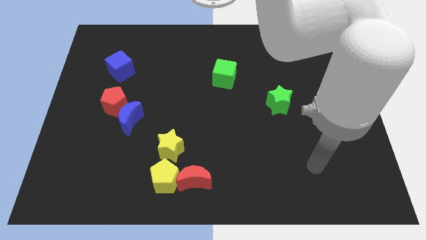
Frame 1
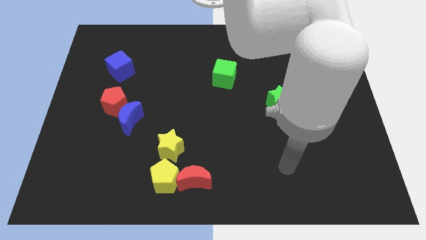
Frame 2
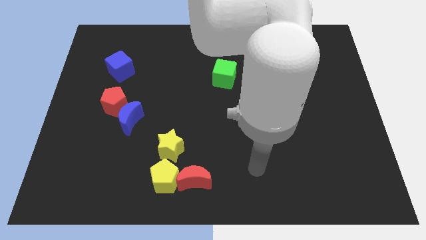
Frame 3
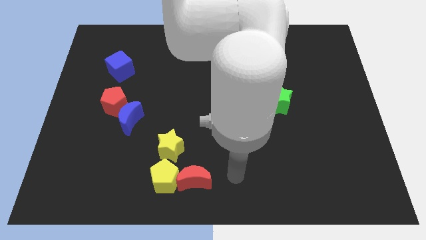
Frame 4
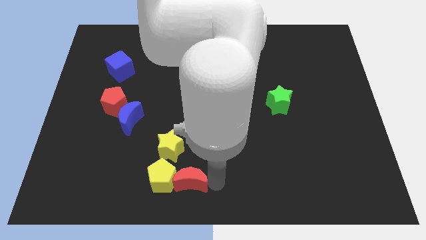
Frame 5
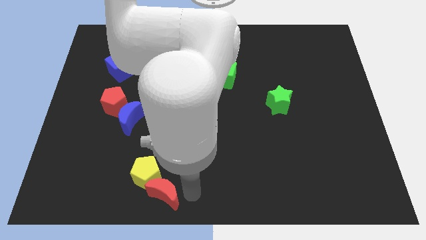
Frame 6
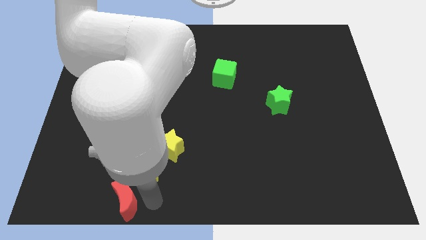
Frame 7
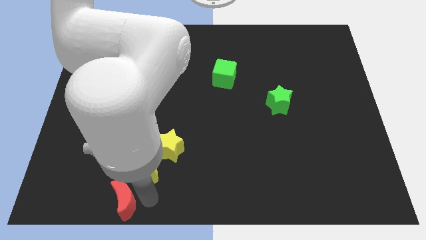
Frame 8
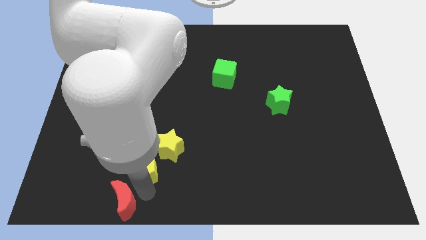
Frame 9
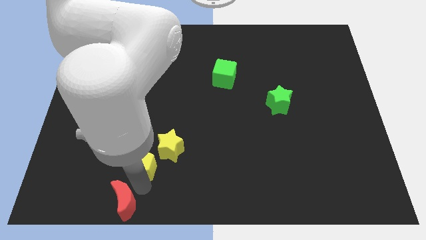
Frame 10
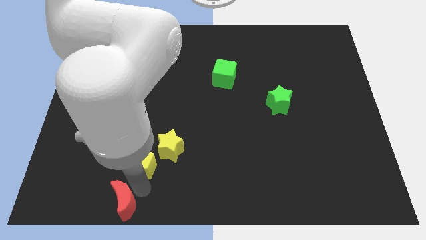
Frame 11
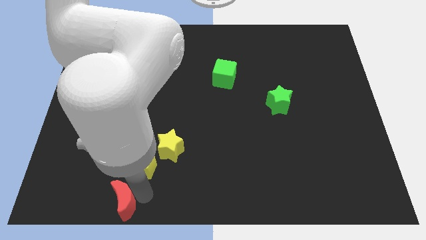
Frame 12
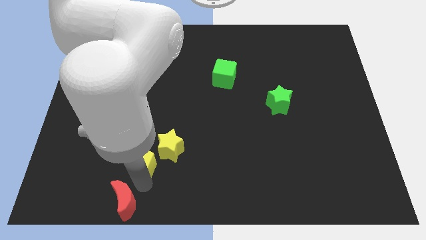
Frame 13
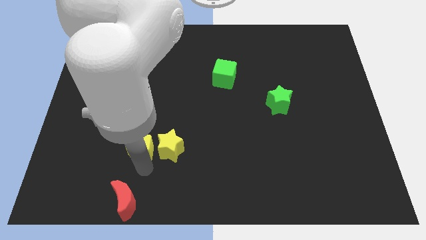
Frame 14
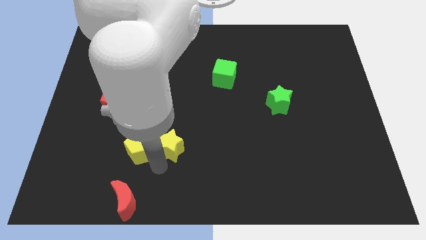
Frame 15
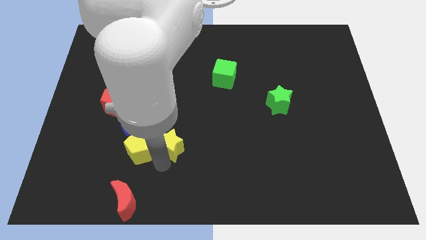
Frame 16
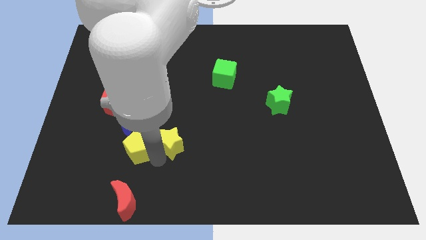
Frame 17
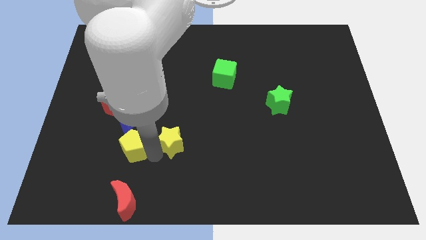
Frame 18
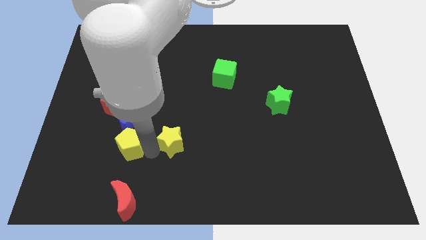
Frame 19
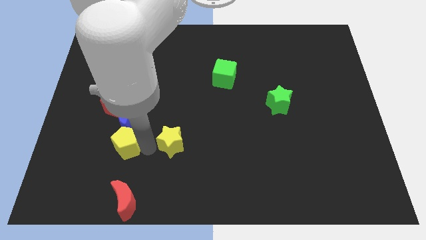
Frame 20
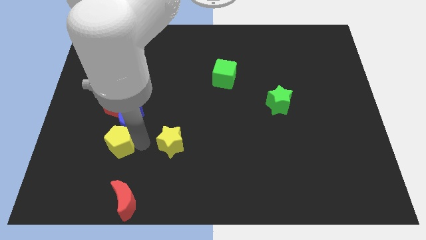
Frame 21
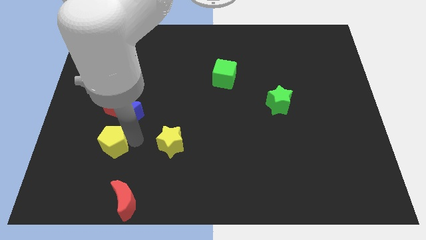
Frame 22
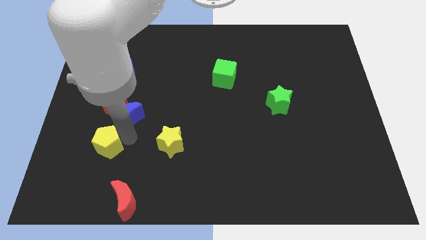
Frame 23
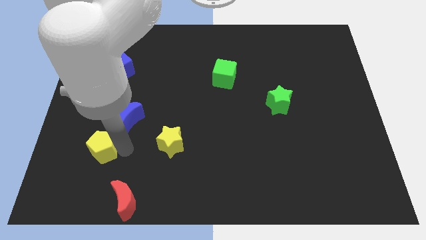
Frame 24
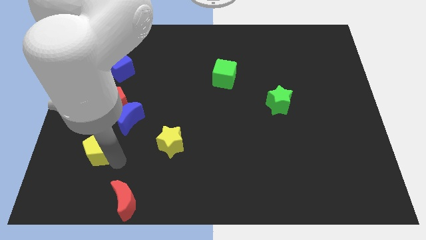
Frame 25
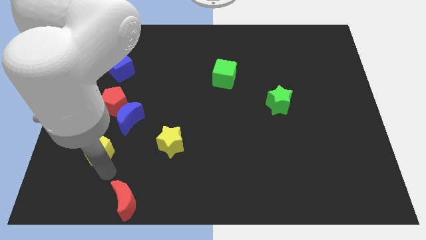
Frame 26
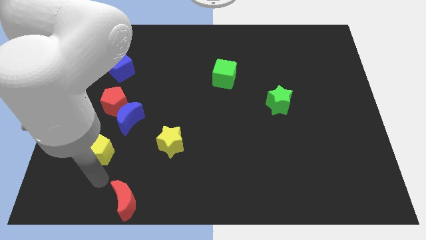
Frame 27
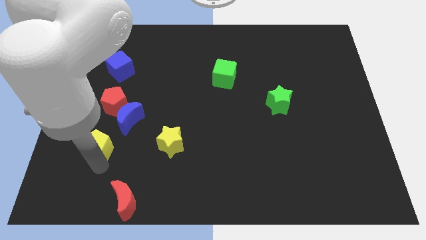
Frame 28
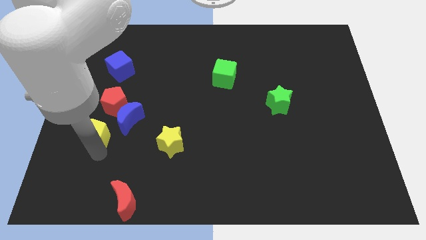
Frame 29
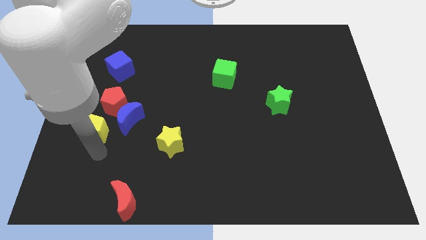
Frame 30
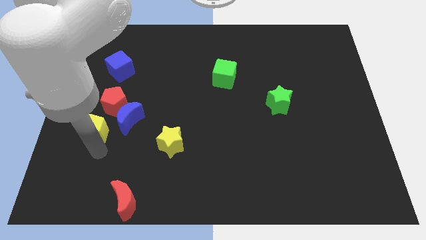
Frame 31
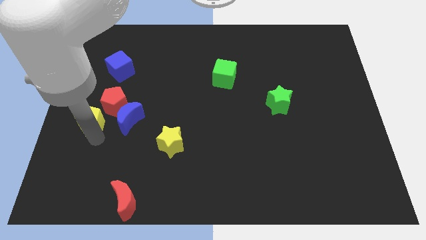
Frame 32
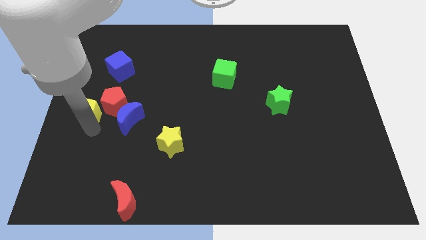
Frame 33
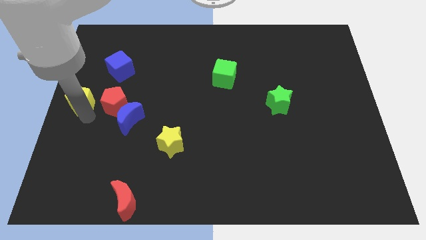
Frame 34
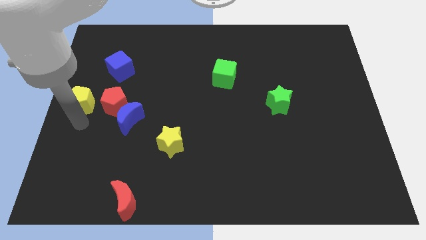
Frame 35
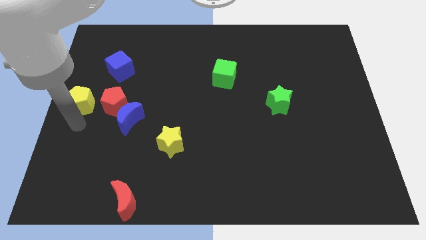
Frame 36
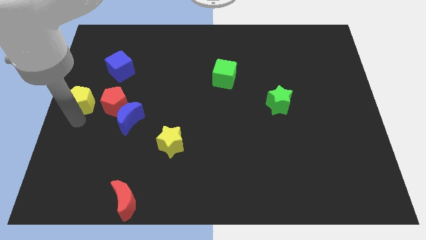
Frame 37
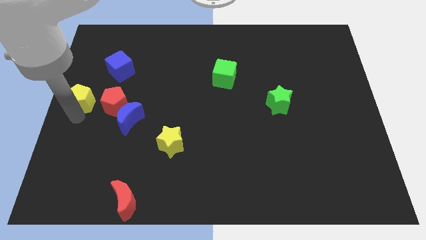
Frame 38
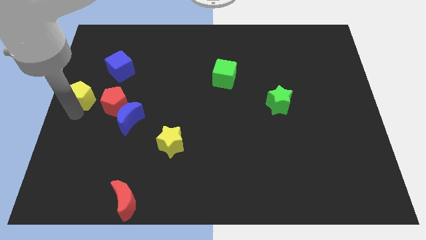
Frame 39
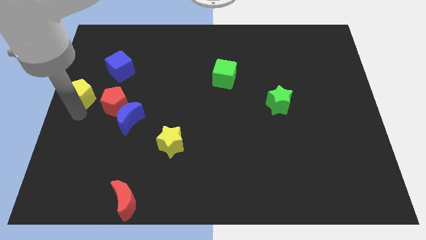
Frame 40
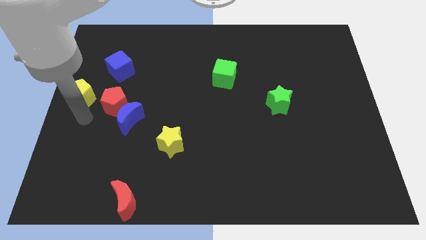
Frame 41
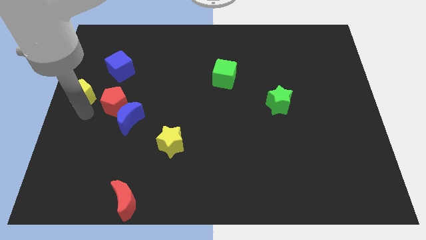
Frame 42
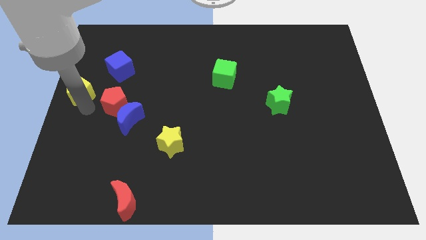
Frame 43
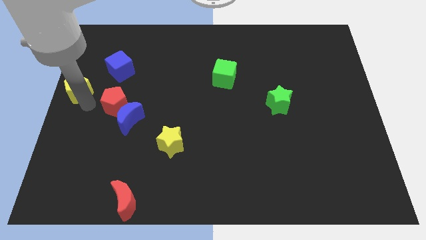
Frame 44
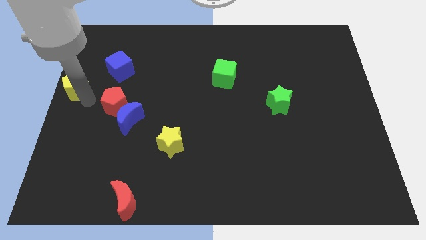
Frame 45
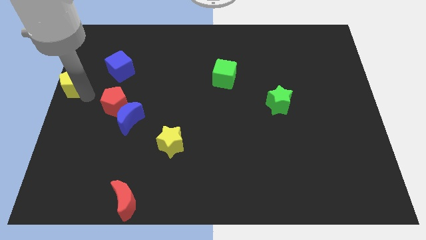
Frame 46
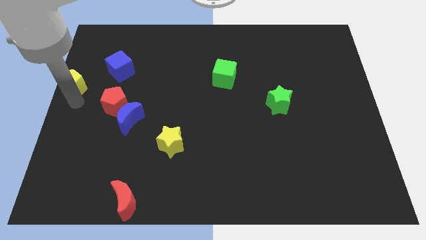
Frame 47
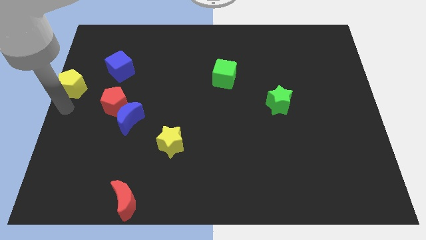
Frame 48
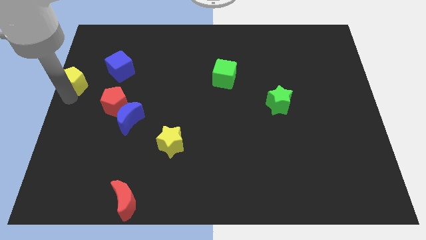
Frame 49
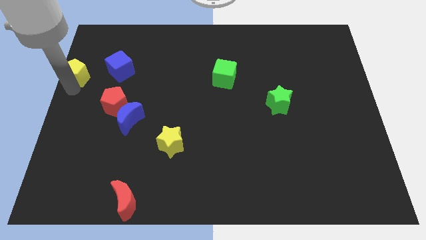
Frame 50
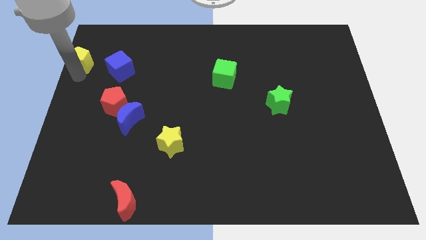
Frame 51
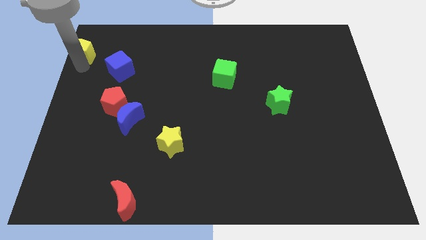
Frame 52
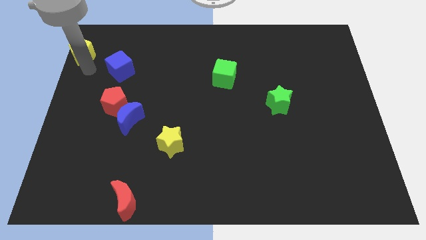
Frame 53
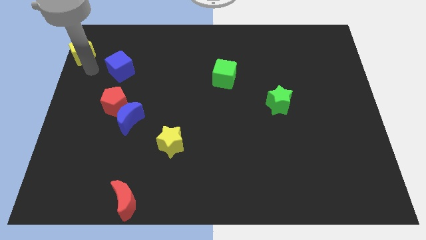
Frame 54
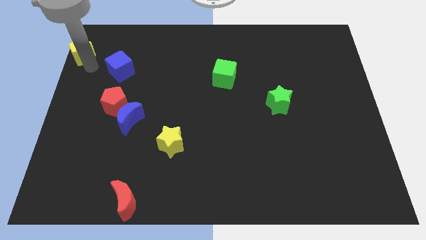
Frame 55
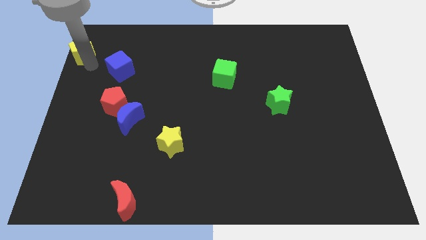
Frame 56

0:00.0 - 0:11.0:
slide the yellow pentagon to the top left
